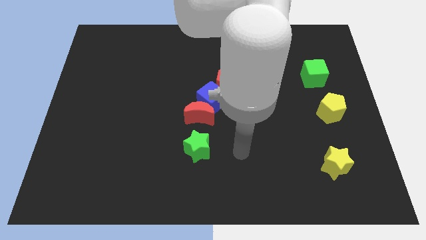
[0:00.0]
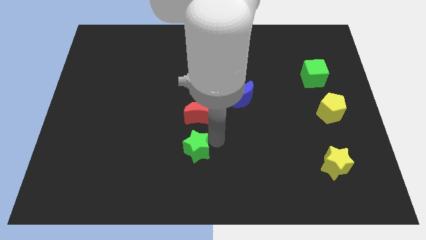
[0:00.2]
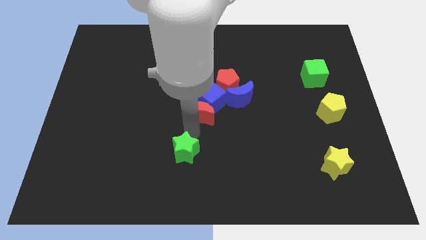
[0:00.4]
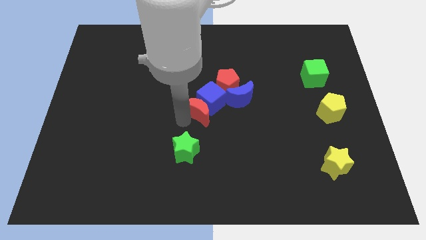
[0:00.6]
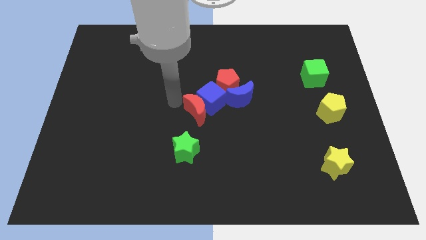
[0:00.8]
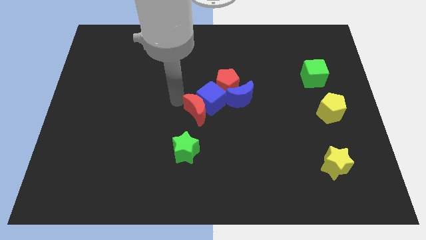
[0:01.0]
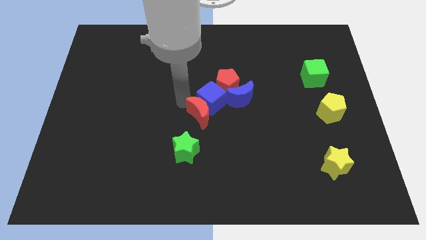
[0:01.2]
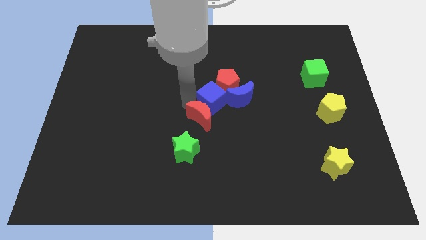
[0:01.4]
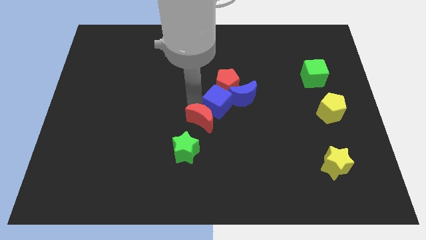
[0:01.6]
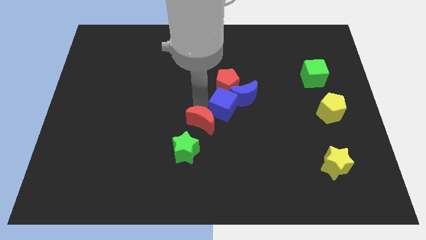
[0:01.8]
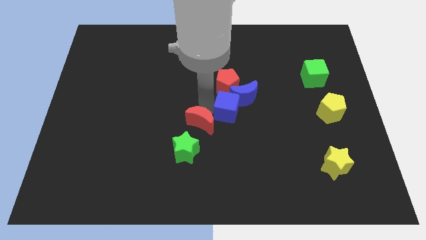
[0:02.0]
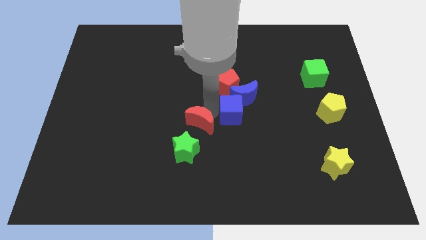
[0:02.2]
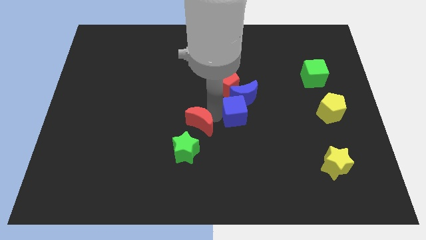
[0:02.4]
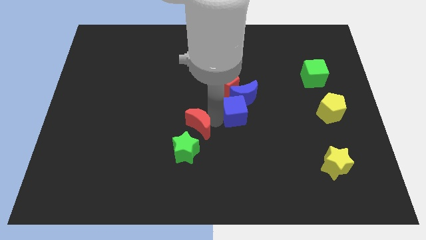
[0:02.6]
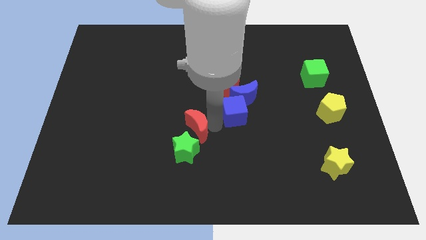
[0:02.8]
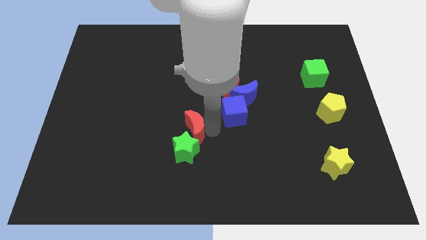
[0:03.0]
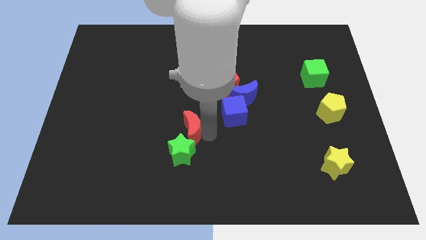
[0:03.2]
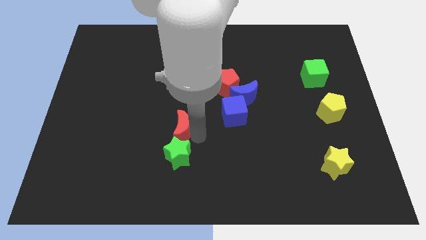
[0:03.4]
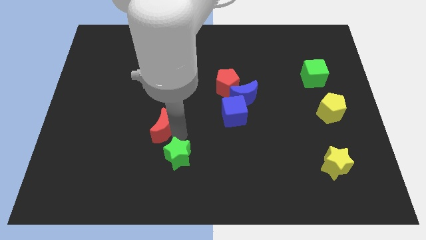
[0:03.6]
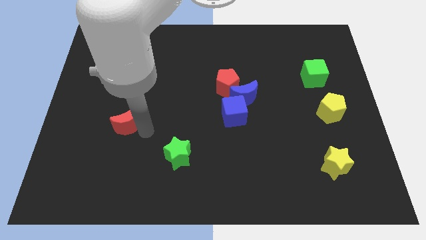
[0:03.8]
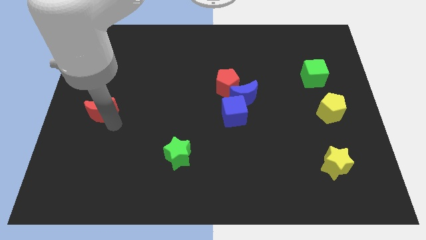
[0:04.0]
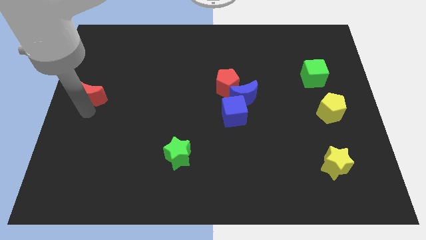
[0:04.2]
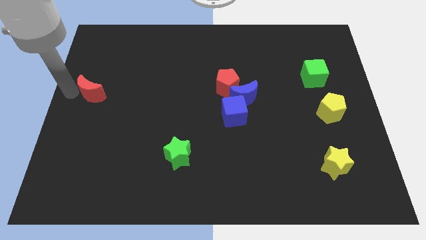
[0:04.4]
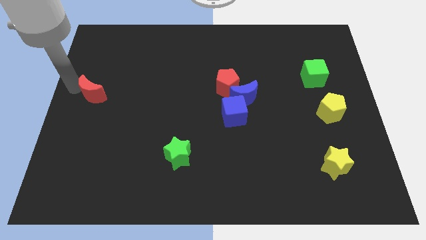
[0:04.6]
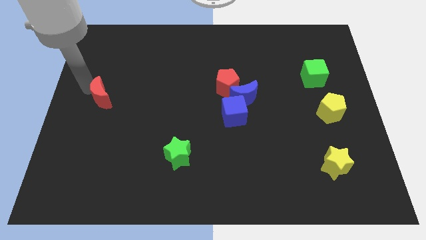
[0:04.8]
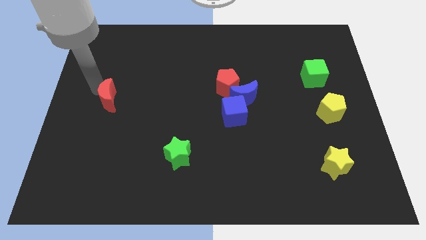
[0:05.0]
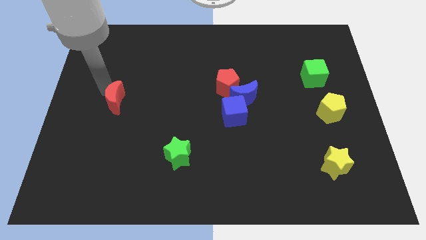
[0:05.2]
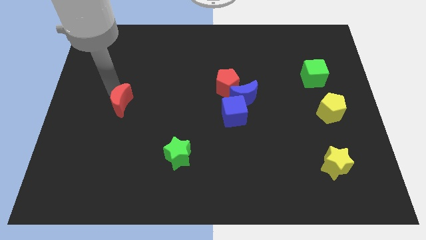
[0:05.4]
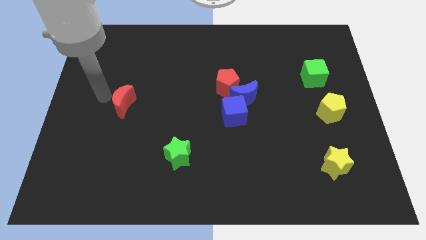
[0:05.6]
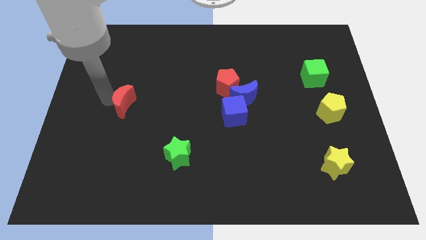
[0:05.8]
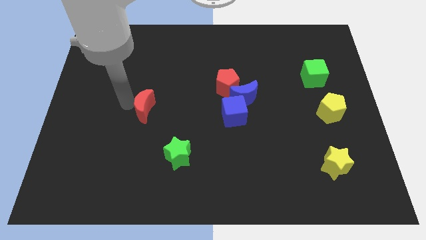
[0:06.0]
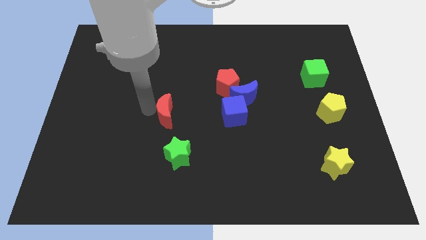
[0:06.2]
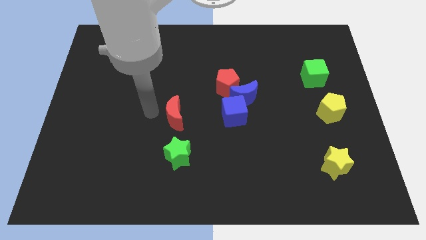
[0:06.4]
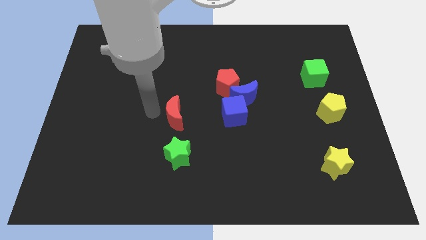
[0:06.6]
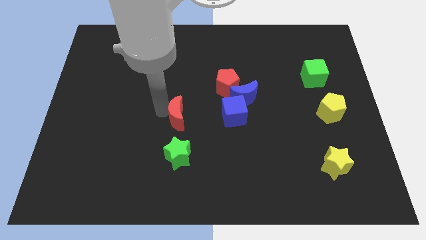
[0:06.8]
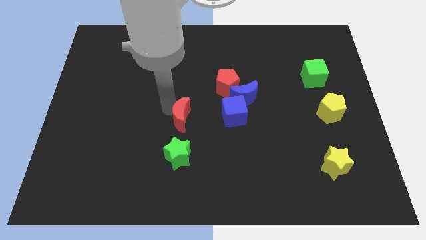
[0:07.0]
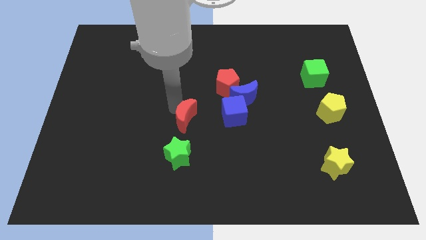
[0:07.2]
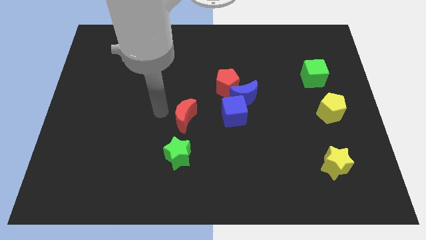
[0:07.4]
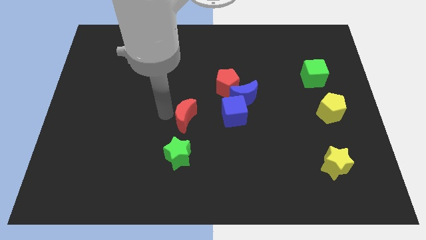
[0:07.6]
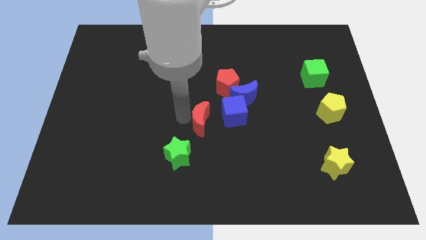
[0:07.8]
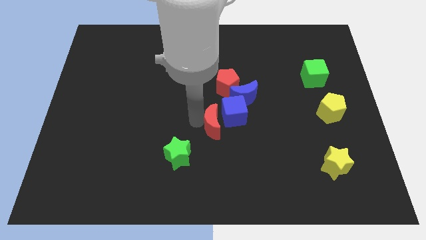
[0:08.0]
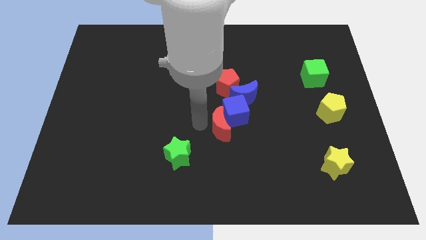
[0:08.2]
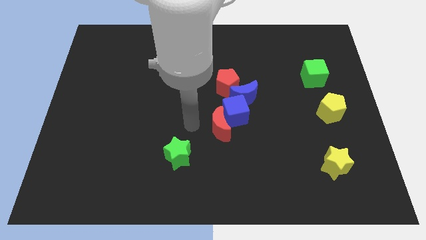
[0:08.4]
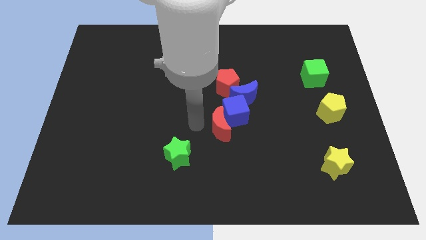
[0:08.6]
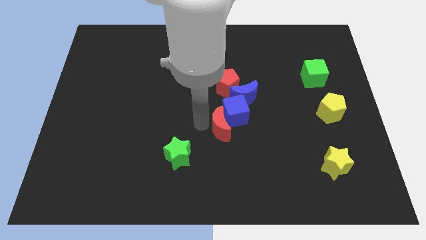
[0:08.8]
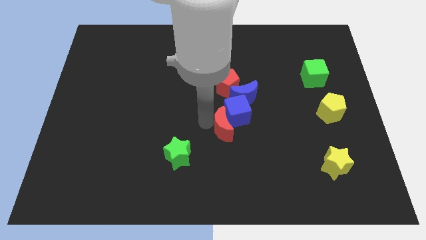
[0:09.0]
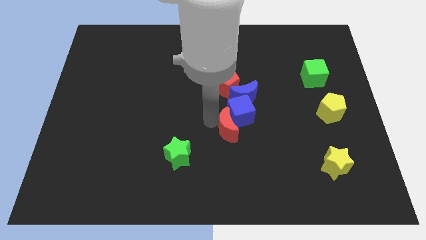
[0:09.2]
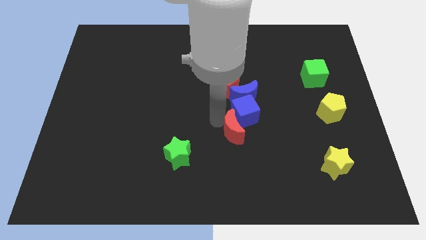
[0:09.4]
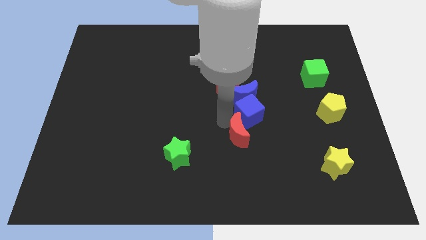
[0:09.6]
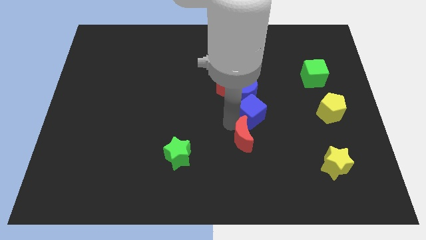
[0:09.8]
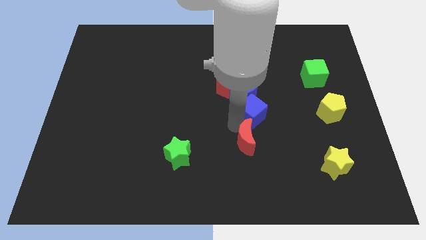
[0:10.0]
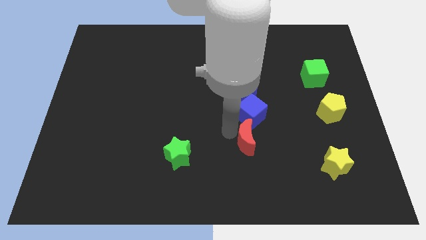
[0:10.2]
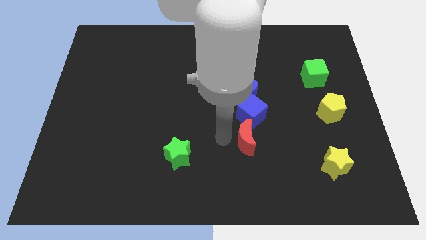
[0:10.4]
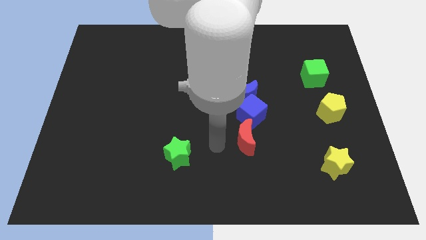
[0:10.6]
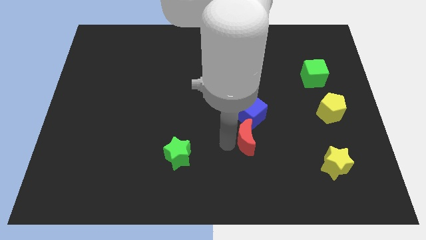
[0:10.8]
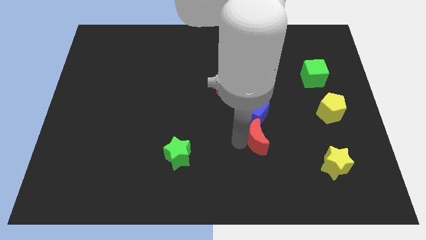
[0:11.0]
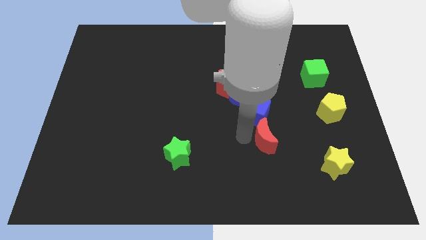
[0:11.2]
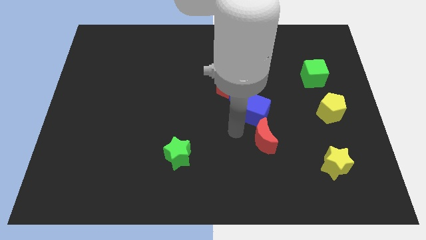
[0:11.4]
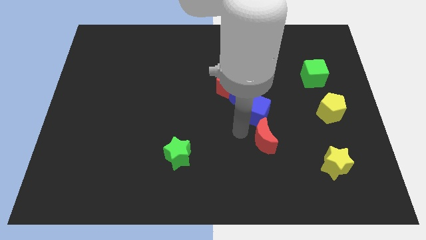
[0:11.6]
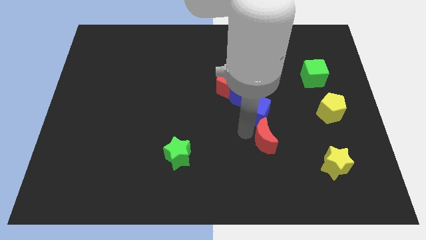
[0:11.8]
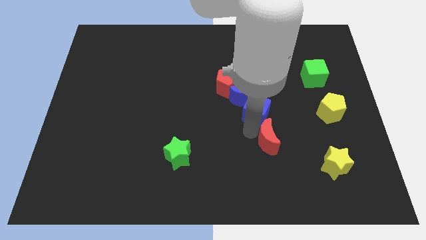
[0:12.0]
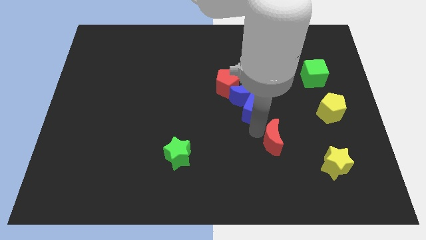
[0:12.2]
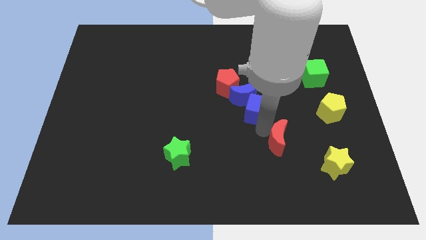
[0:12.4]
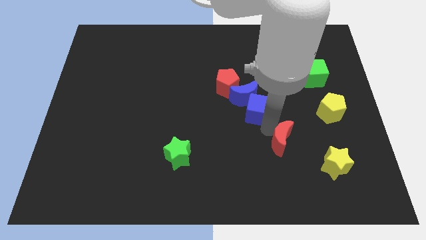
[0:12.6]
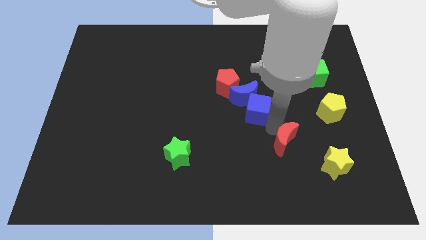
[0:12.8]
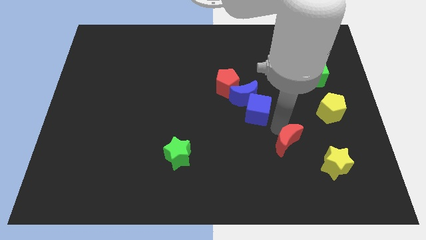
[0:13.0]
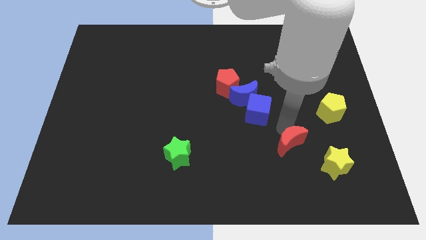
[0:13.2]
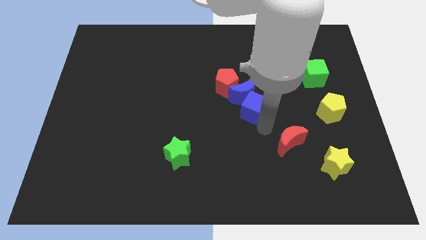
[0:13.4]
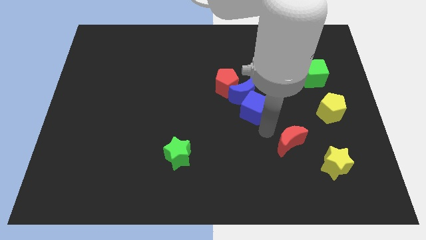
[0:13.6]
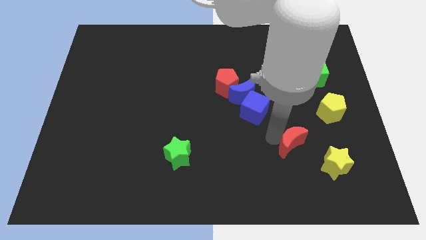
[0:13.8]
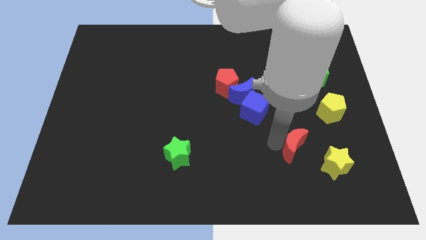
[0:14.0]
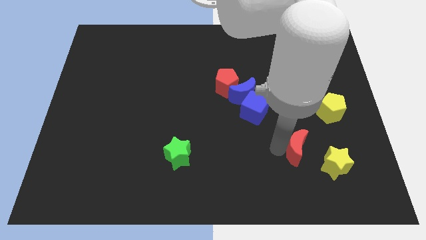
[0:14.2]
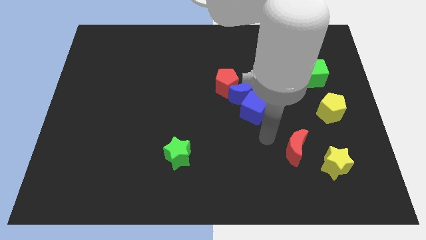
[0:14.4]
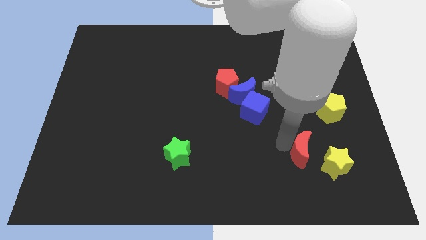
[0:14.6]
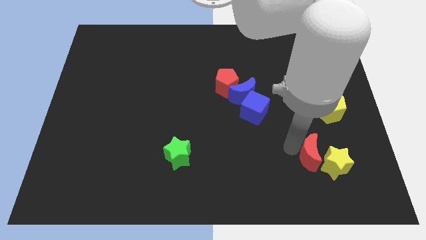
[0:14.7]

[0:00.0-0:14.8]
put the red moon close to the yellow star
